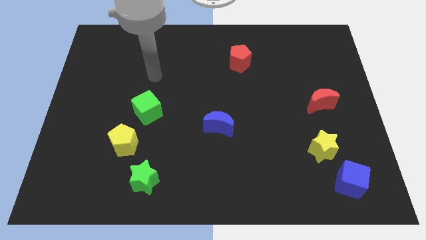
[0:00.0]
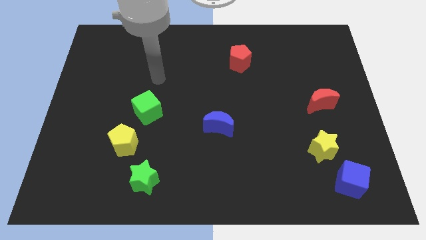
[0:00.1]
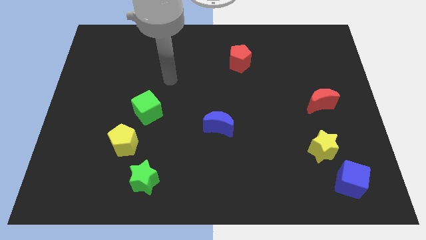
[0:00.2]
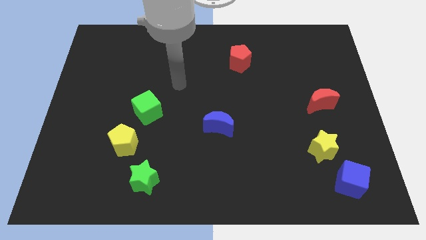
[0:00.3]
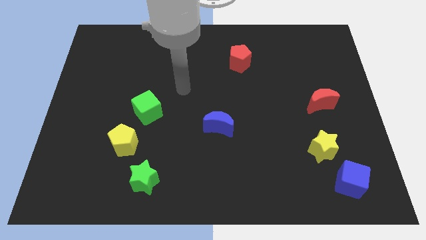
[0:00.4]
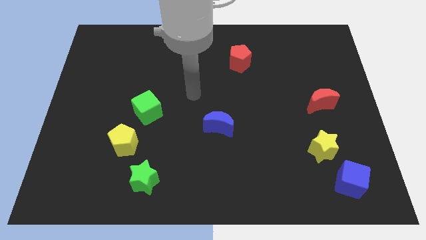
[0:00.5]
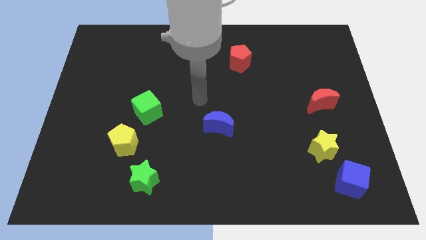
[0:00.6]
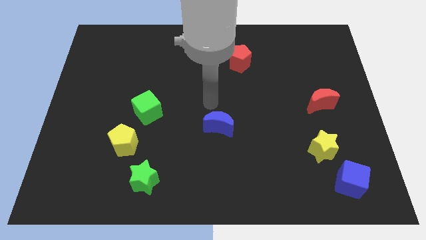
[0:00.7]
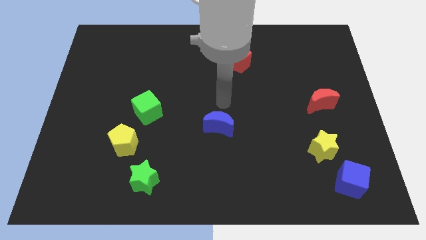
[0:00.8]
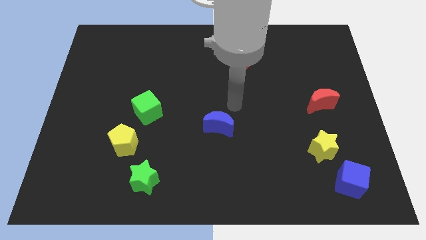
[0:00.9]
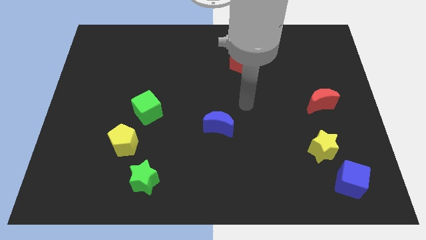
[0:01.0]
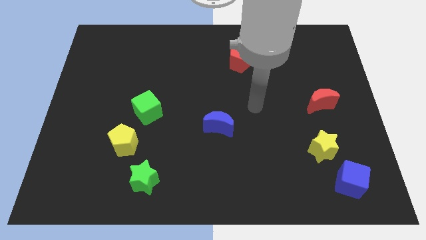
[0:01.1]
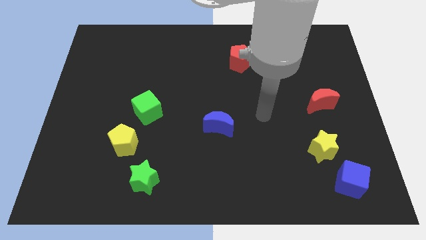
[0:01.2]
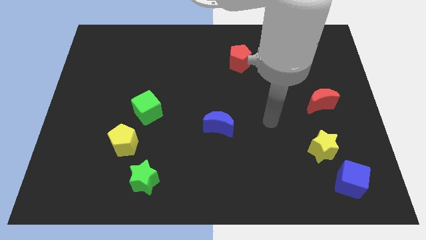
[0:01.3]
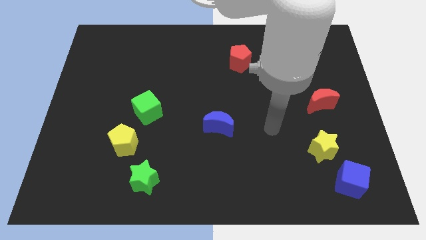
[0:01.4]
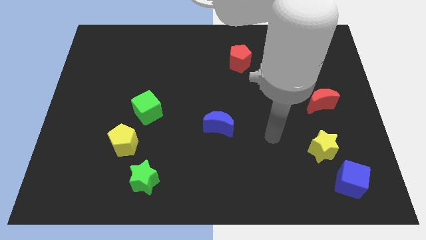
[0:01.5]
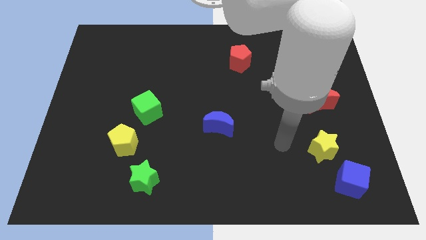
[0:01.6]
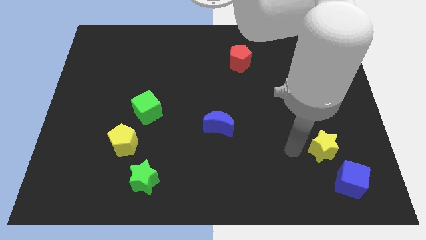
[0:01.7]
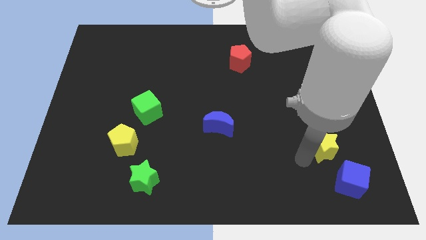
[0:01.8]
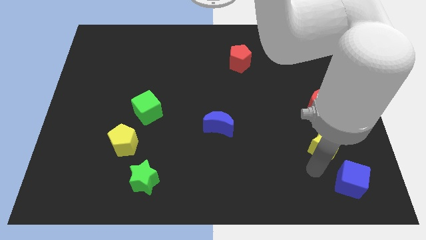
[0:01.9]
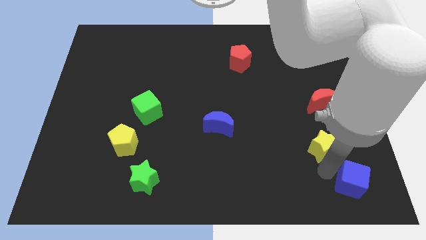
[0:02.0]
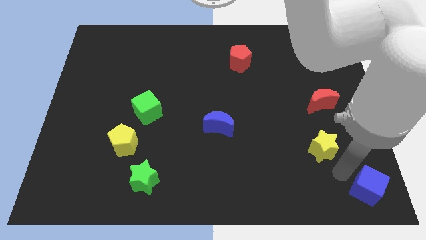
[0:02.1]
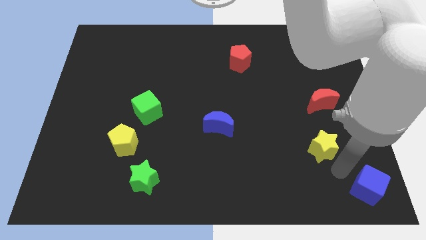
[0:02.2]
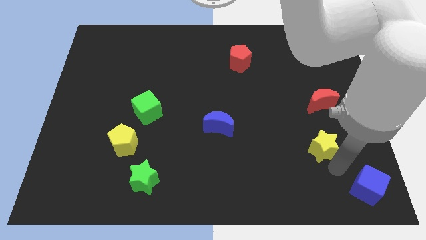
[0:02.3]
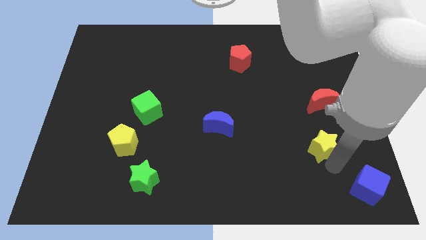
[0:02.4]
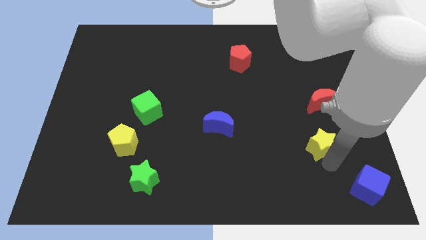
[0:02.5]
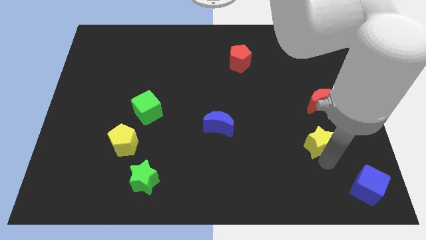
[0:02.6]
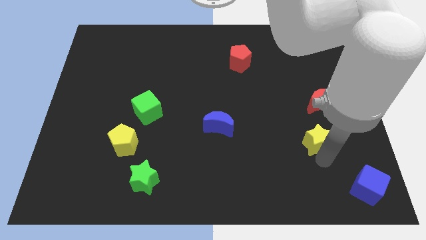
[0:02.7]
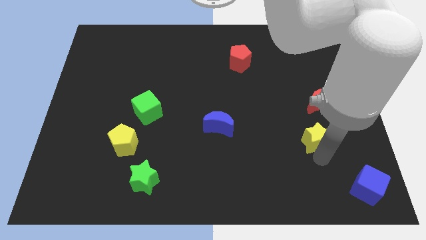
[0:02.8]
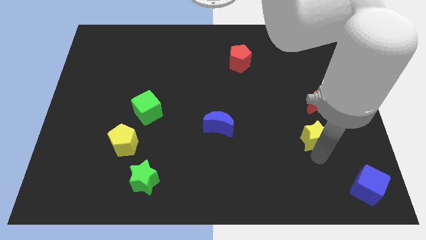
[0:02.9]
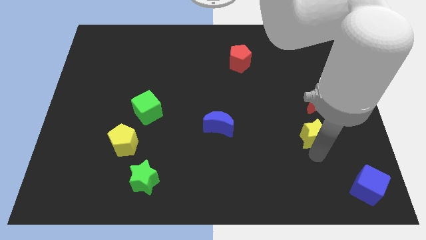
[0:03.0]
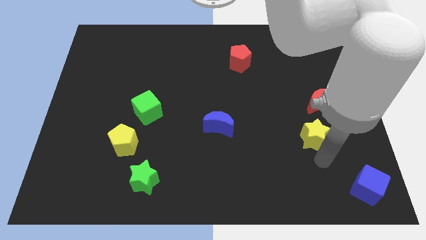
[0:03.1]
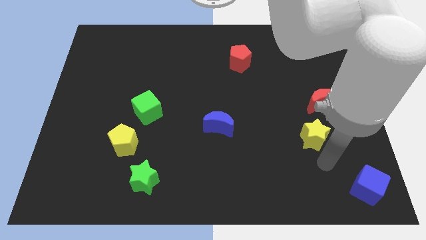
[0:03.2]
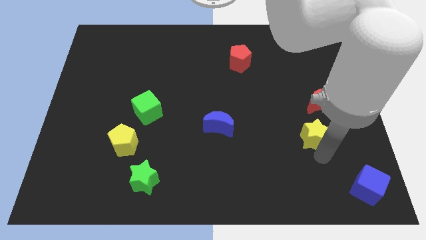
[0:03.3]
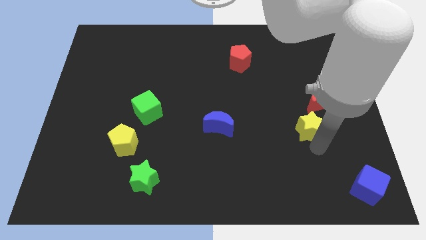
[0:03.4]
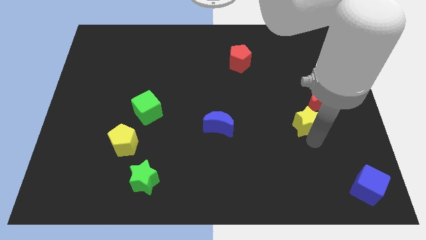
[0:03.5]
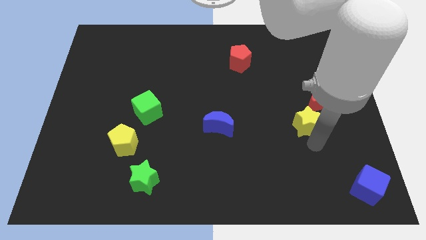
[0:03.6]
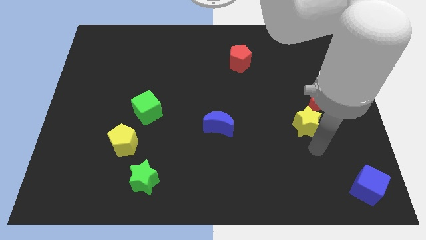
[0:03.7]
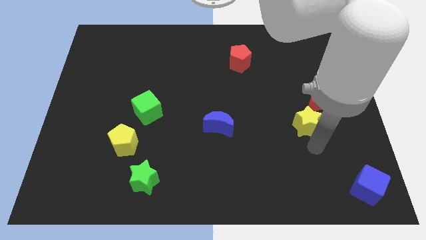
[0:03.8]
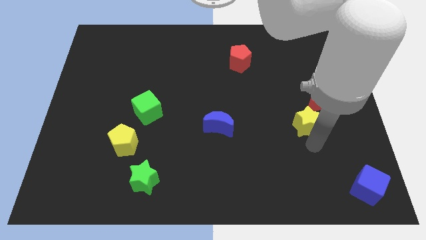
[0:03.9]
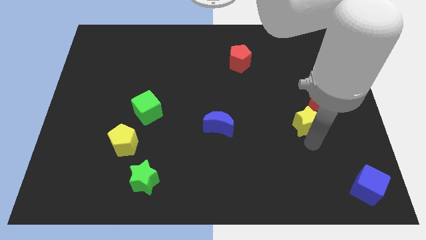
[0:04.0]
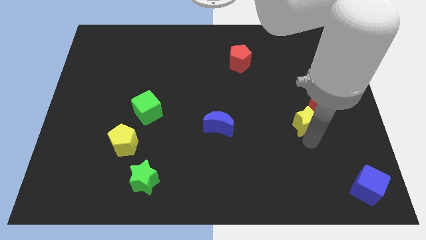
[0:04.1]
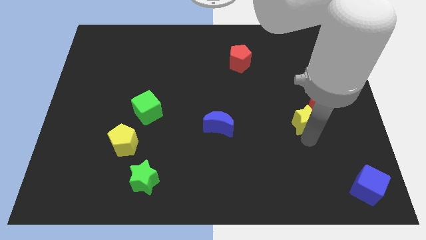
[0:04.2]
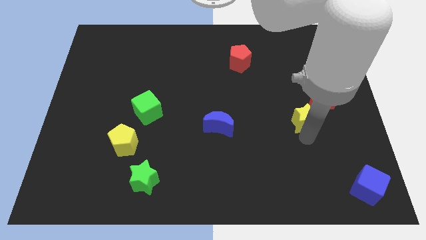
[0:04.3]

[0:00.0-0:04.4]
move the yellow star somewhat up

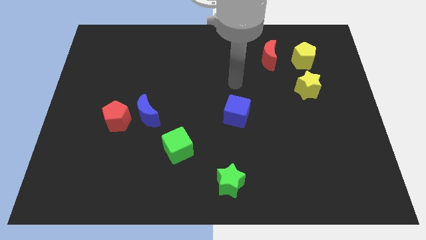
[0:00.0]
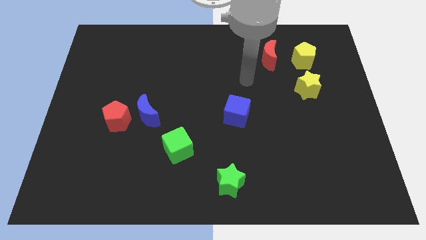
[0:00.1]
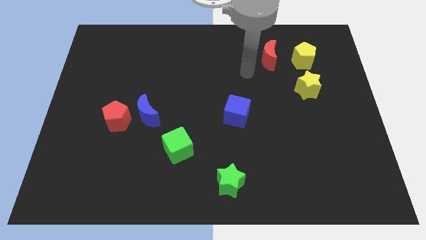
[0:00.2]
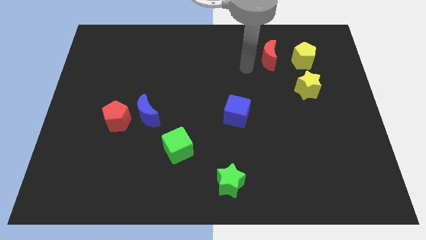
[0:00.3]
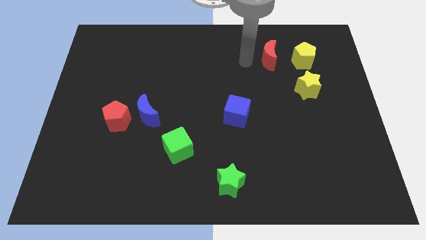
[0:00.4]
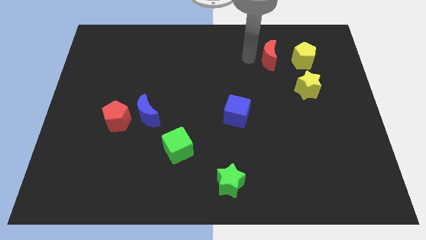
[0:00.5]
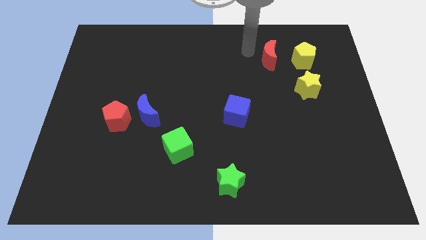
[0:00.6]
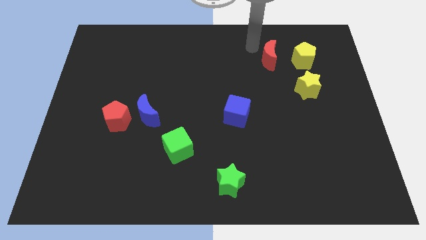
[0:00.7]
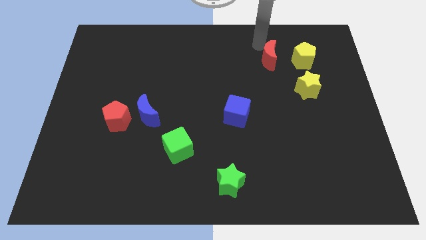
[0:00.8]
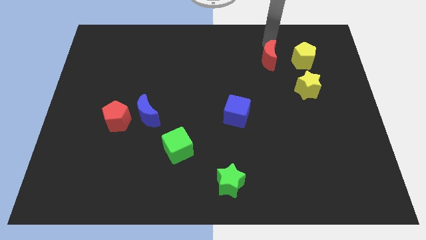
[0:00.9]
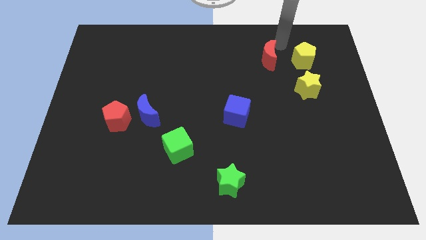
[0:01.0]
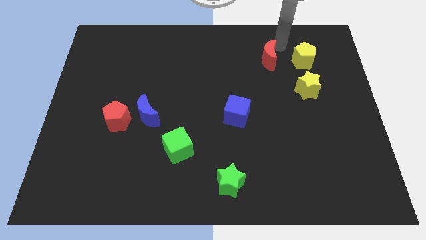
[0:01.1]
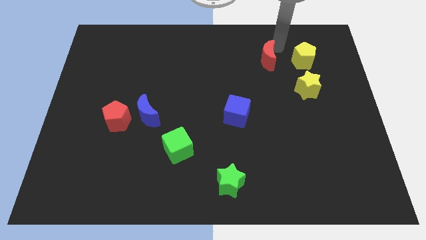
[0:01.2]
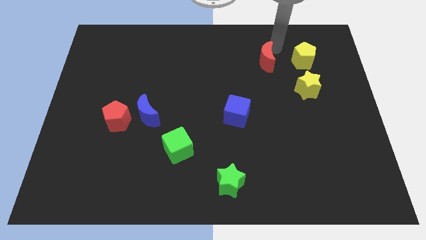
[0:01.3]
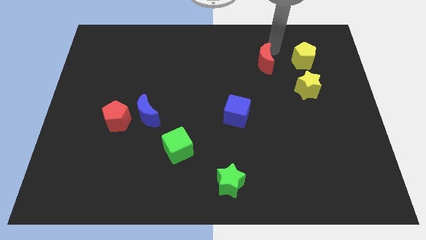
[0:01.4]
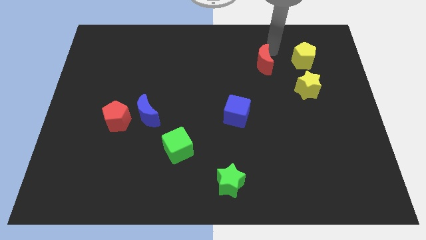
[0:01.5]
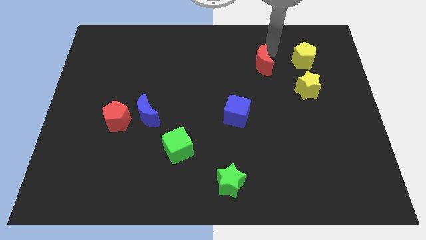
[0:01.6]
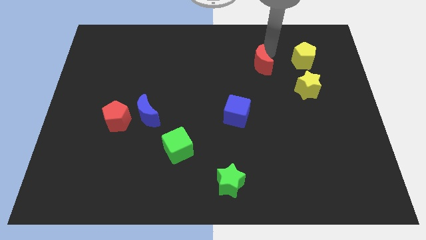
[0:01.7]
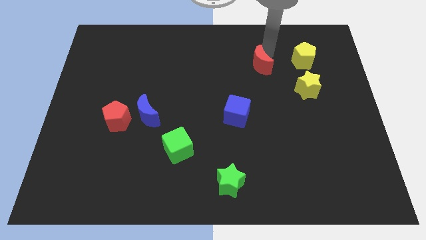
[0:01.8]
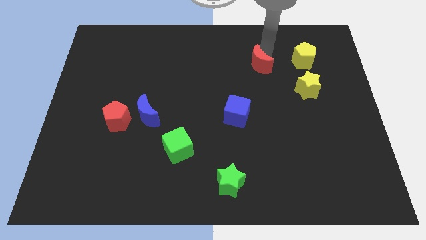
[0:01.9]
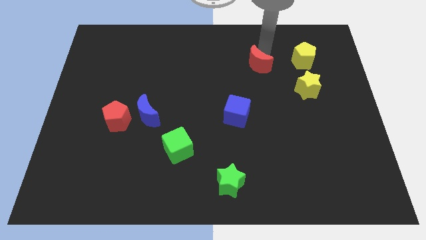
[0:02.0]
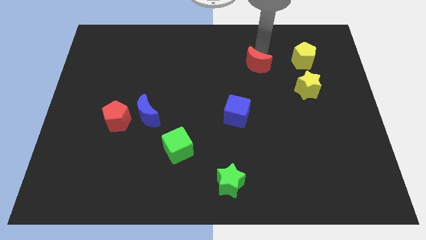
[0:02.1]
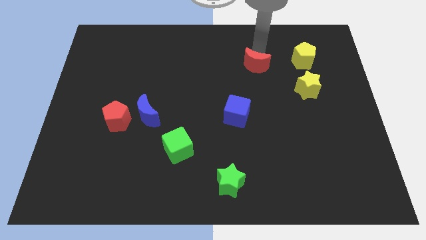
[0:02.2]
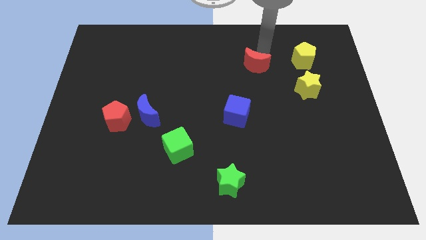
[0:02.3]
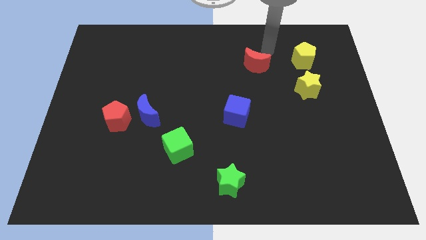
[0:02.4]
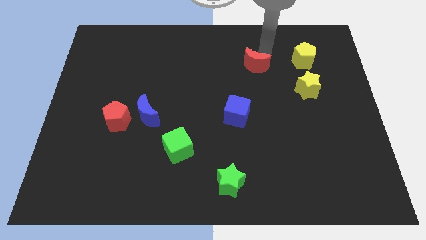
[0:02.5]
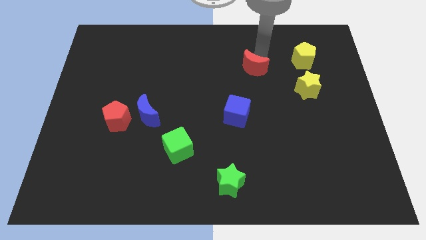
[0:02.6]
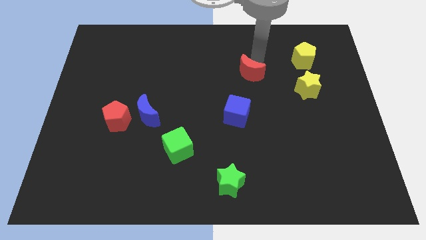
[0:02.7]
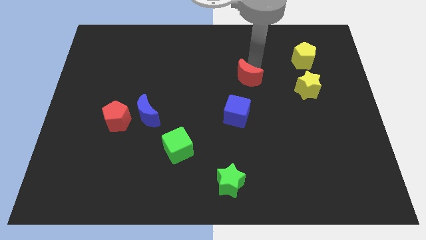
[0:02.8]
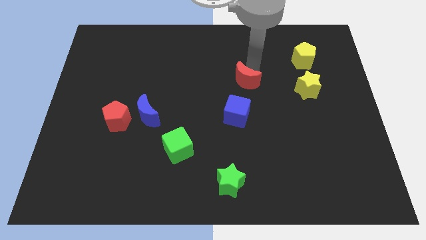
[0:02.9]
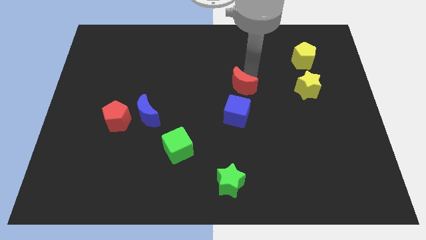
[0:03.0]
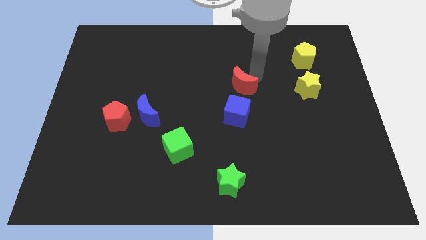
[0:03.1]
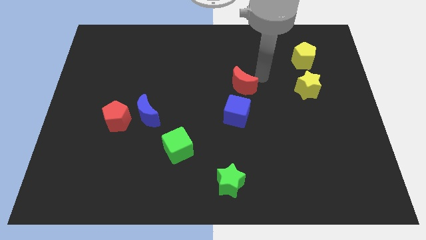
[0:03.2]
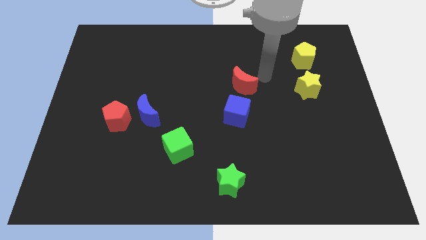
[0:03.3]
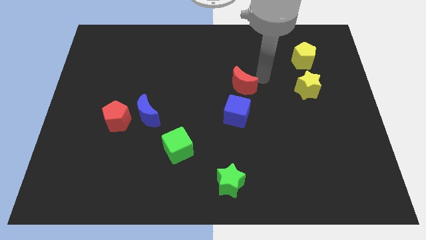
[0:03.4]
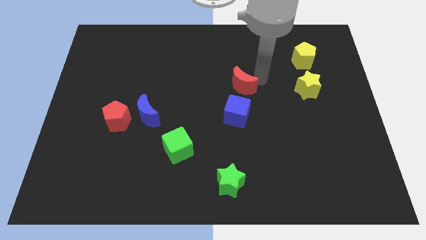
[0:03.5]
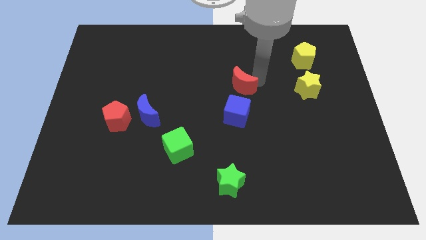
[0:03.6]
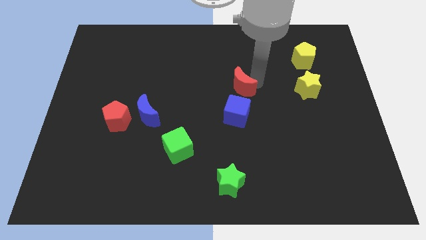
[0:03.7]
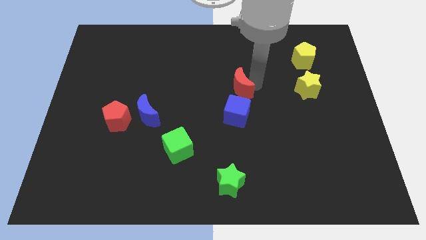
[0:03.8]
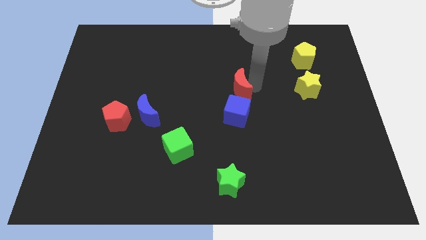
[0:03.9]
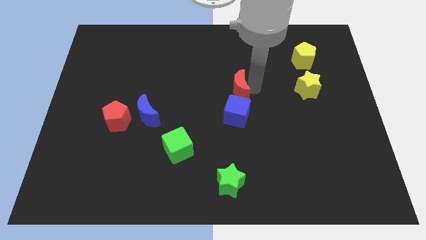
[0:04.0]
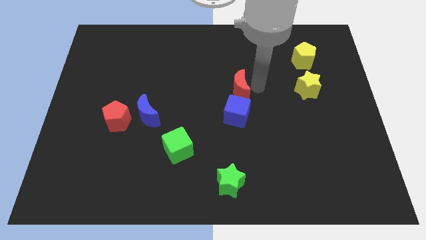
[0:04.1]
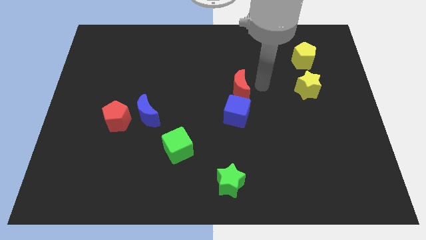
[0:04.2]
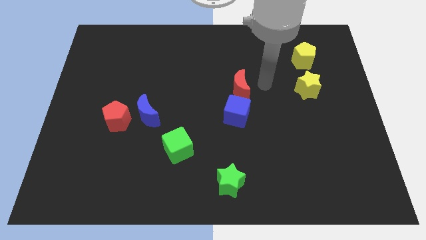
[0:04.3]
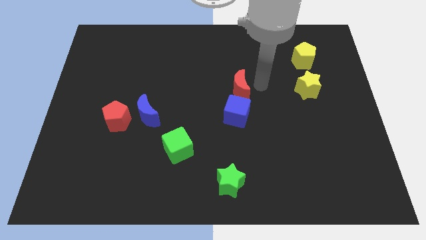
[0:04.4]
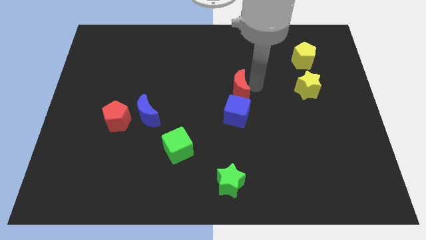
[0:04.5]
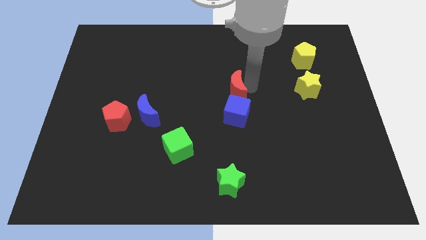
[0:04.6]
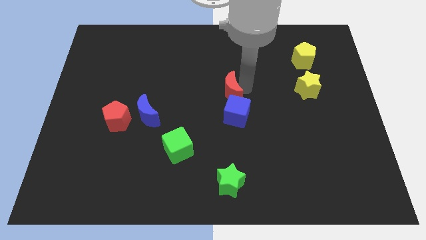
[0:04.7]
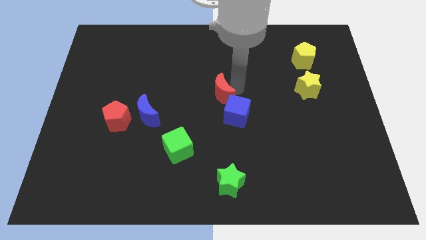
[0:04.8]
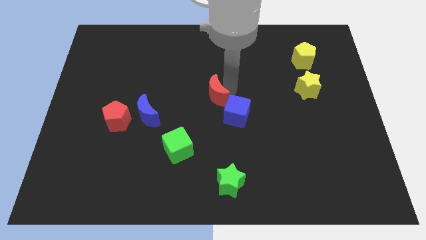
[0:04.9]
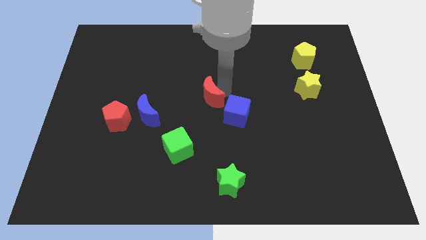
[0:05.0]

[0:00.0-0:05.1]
move the red moon down and left diagonally
